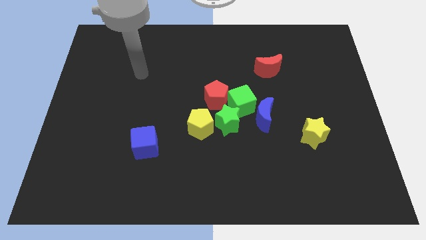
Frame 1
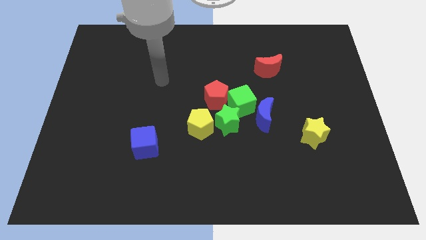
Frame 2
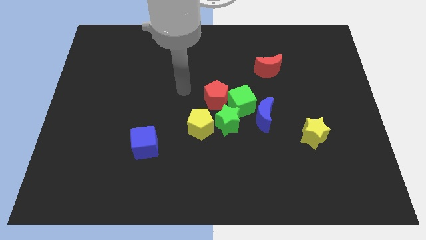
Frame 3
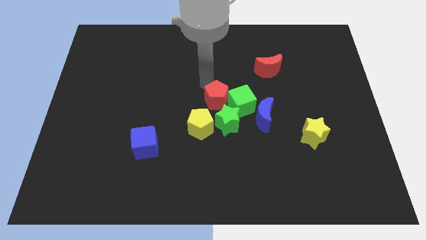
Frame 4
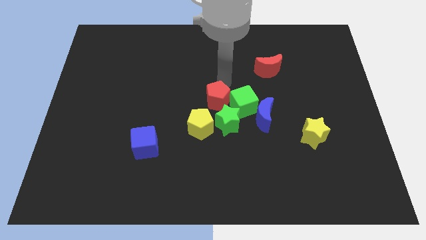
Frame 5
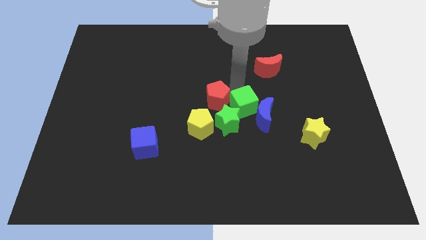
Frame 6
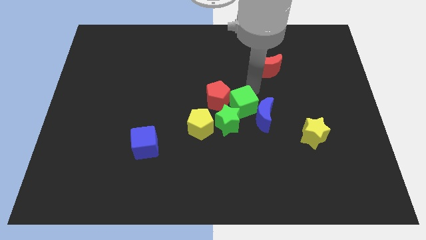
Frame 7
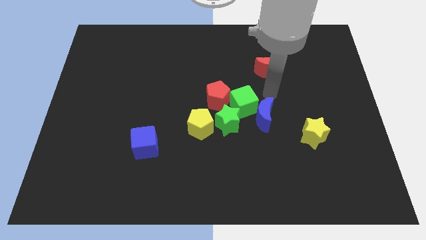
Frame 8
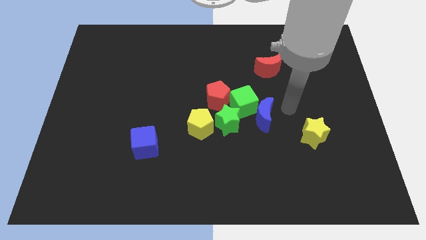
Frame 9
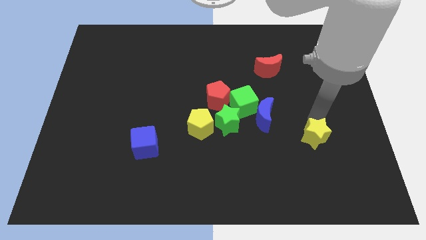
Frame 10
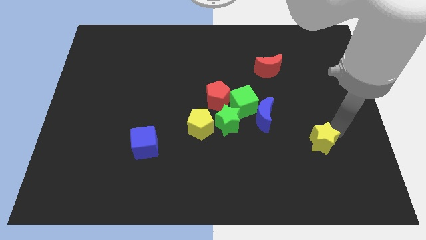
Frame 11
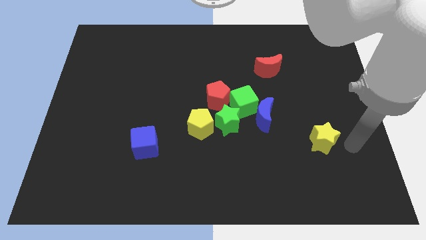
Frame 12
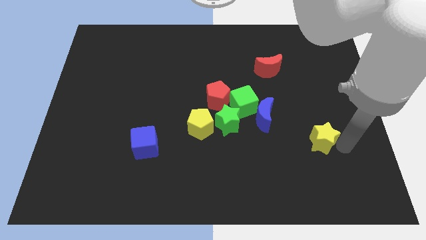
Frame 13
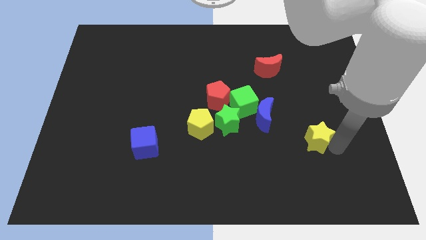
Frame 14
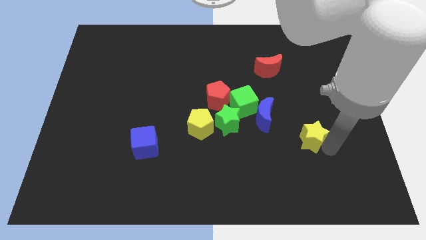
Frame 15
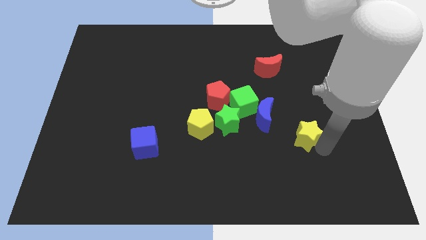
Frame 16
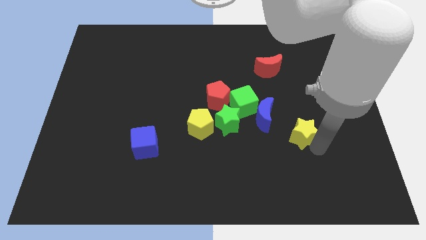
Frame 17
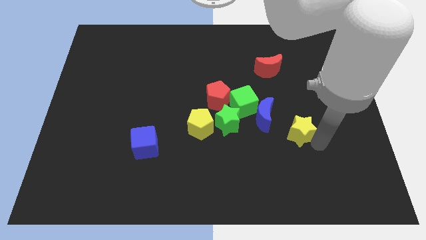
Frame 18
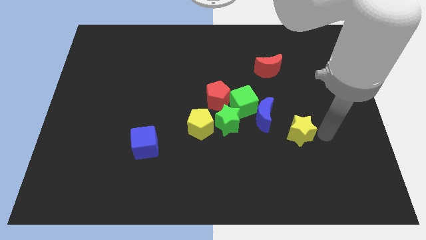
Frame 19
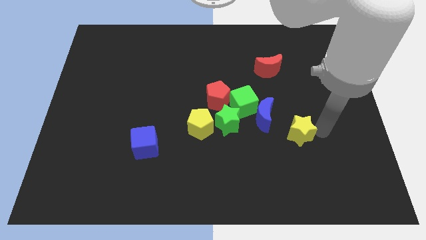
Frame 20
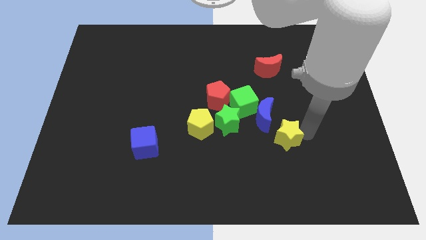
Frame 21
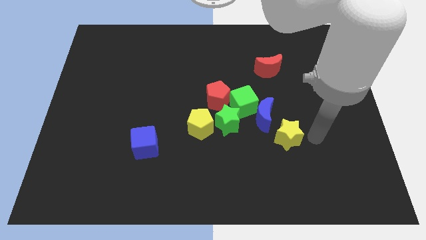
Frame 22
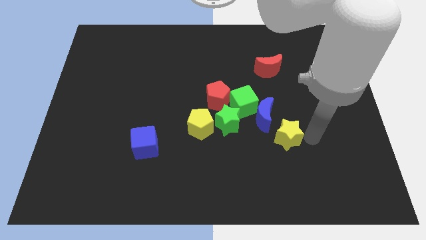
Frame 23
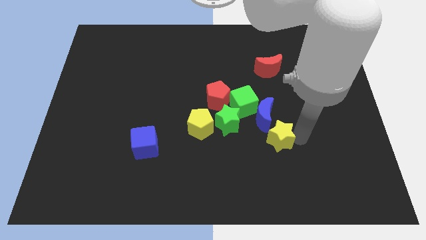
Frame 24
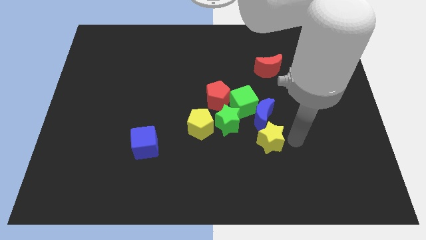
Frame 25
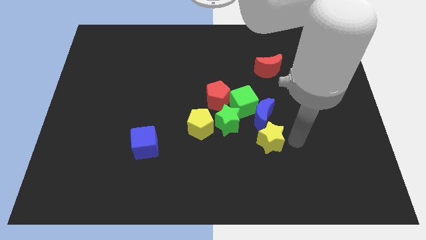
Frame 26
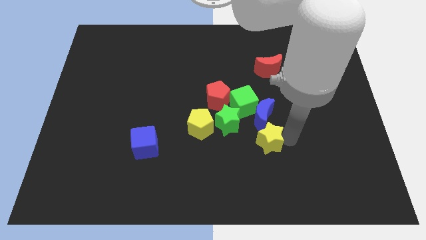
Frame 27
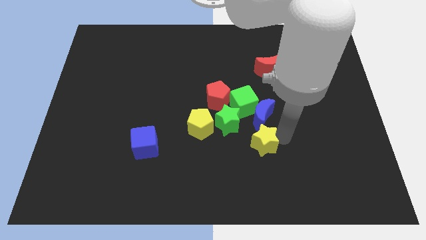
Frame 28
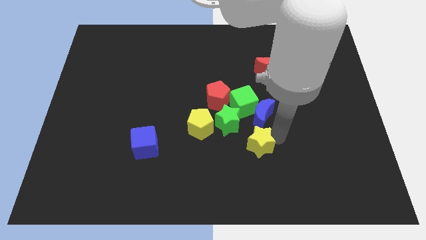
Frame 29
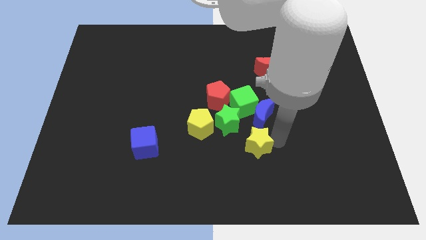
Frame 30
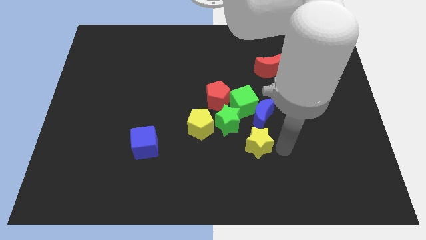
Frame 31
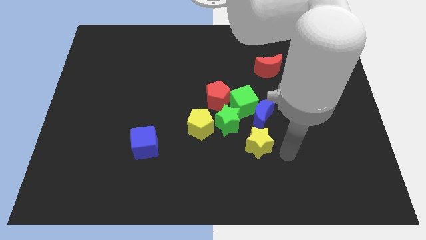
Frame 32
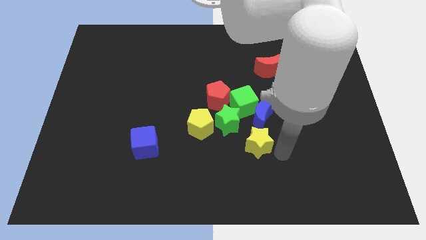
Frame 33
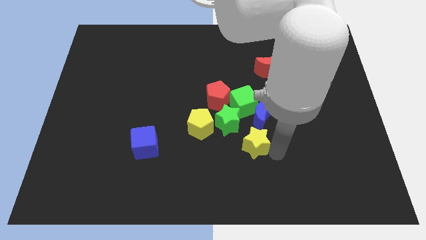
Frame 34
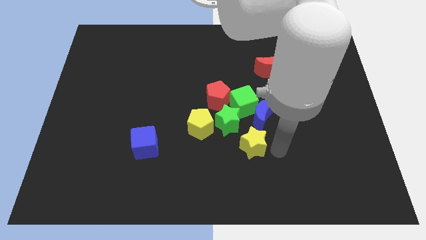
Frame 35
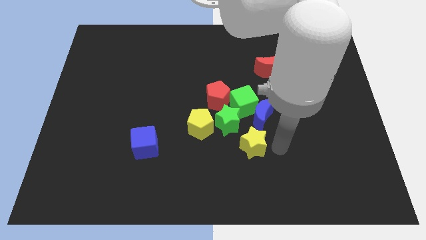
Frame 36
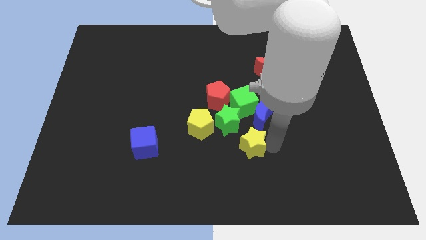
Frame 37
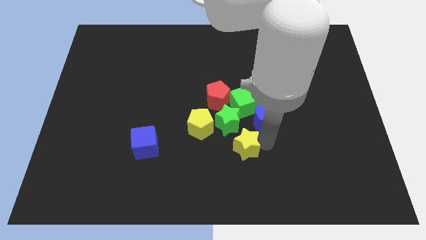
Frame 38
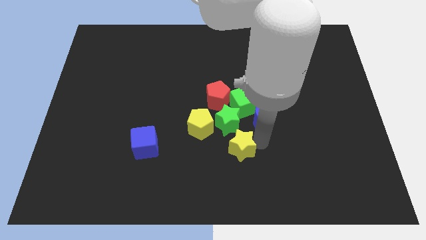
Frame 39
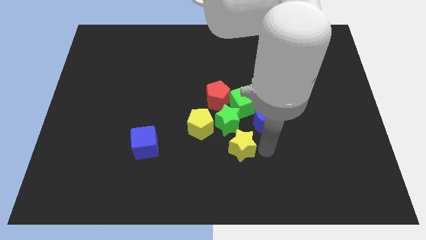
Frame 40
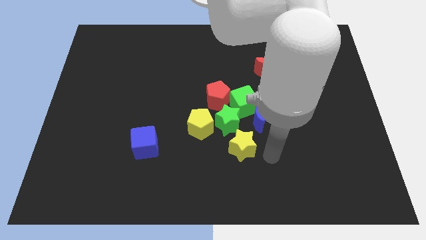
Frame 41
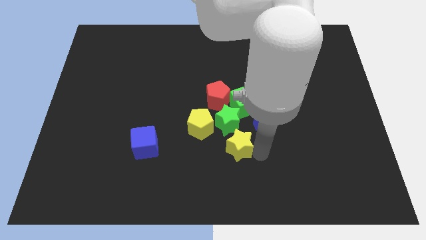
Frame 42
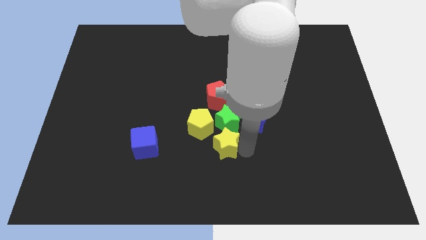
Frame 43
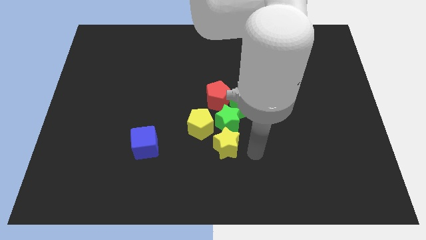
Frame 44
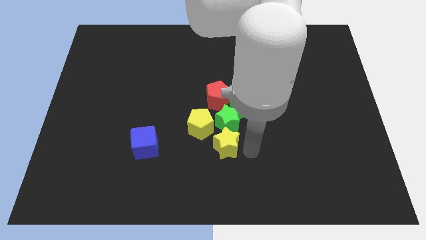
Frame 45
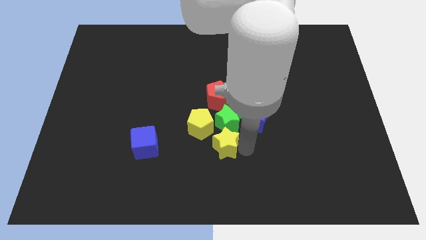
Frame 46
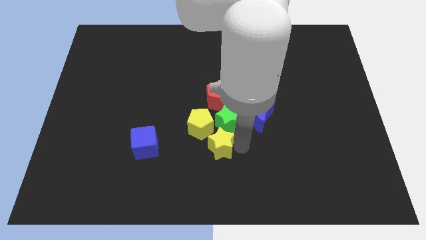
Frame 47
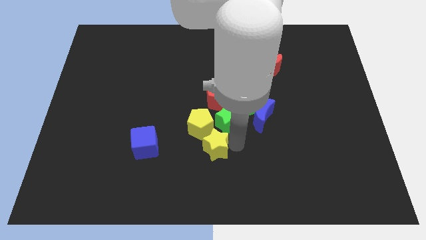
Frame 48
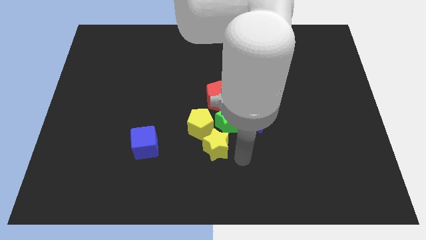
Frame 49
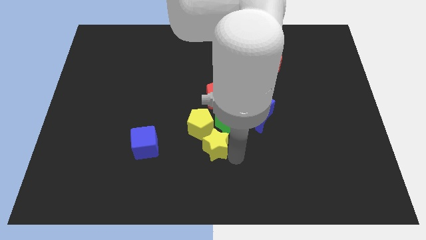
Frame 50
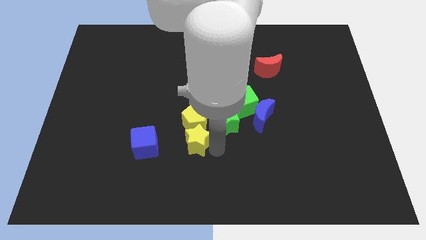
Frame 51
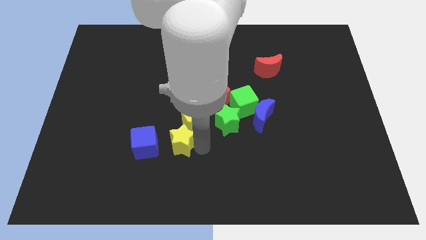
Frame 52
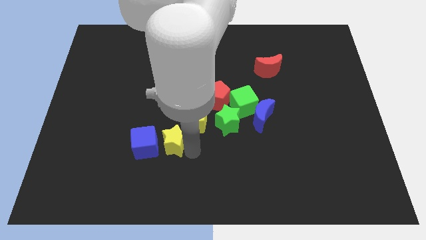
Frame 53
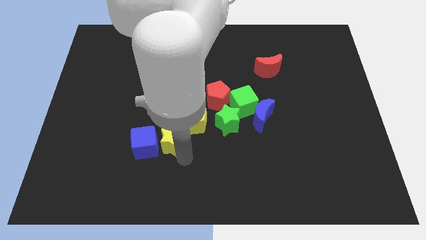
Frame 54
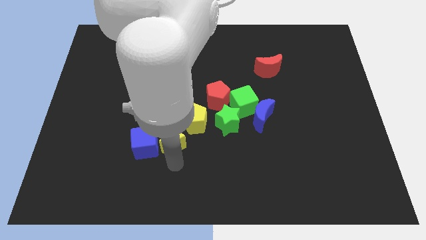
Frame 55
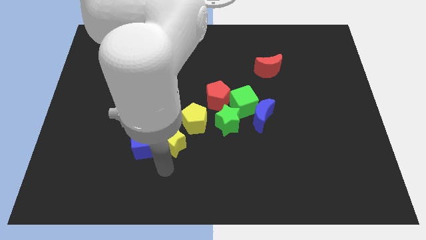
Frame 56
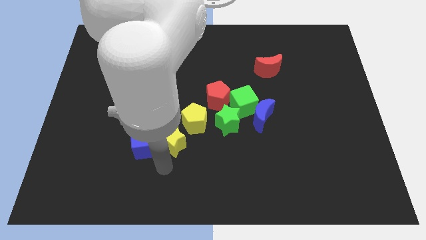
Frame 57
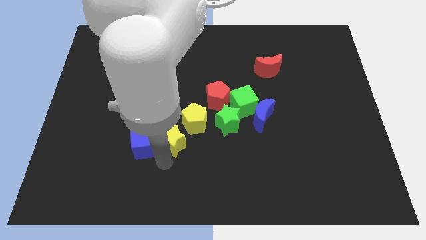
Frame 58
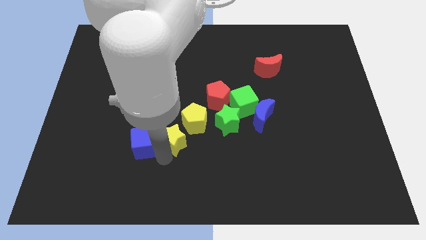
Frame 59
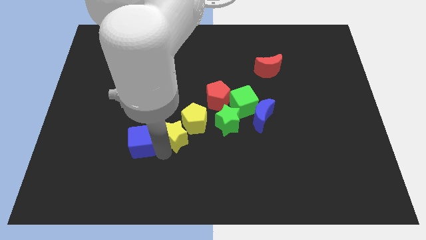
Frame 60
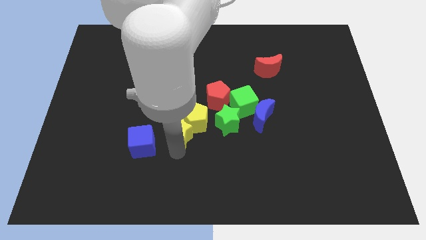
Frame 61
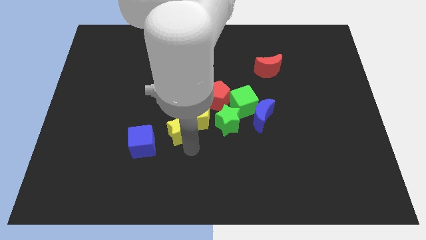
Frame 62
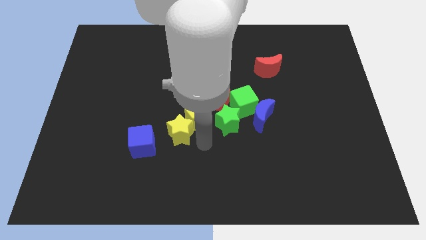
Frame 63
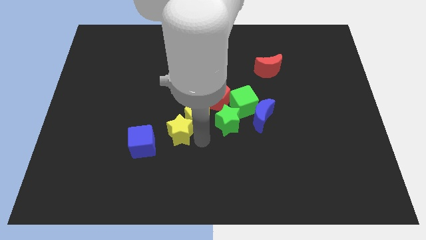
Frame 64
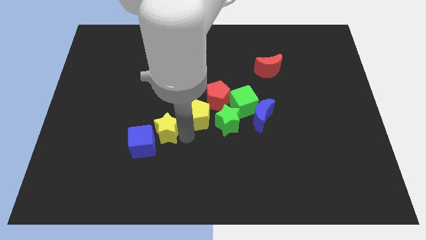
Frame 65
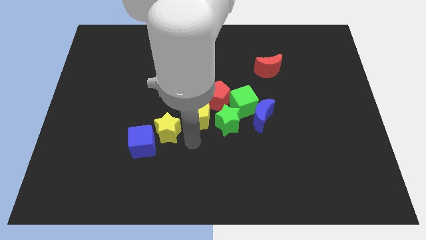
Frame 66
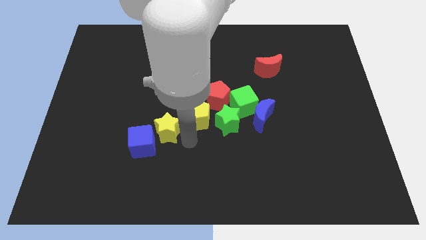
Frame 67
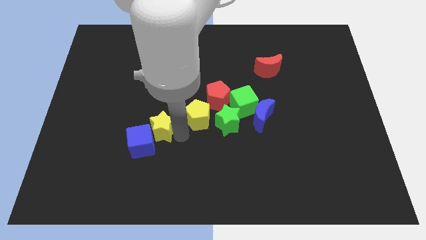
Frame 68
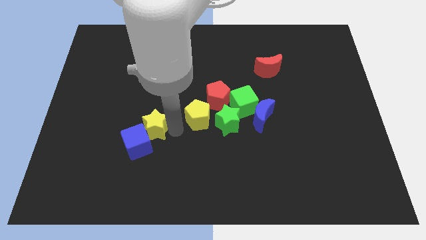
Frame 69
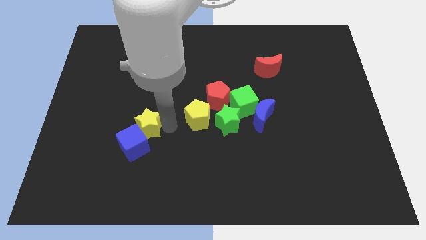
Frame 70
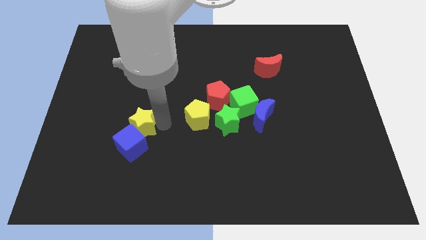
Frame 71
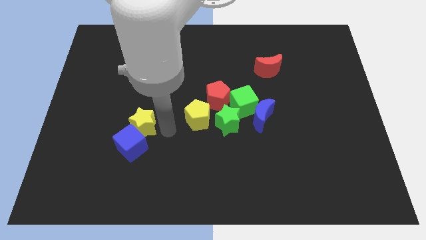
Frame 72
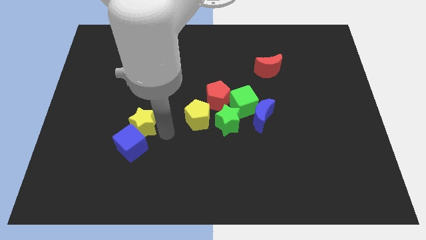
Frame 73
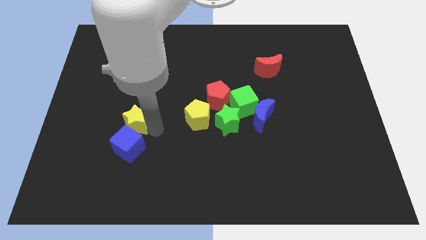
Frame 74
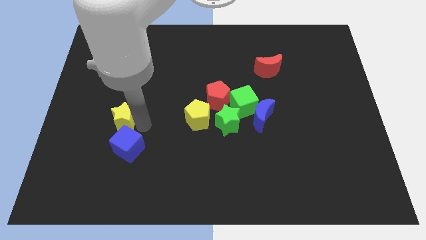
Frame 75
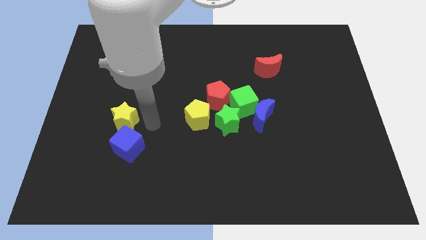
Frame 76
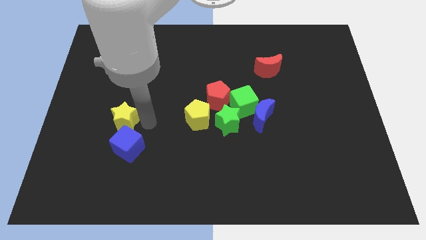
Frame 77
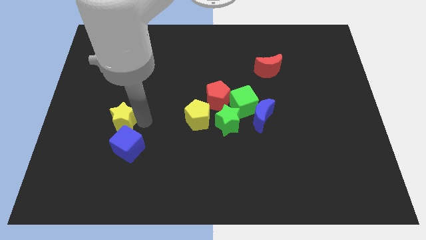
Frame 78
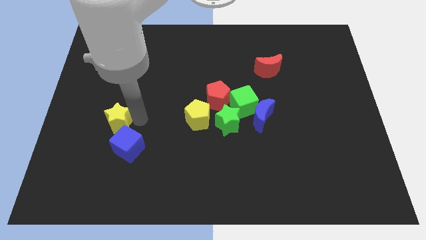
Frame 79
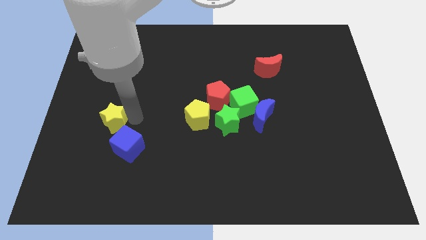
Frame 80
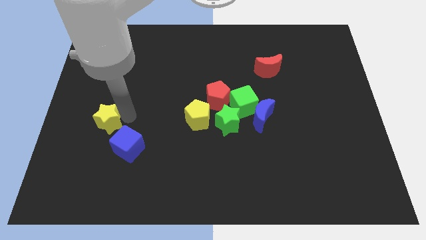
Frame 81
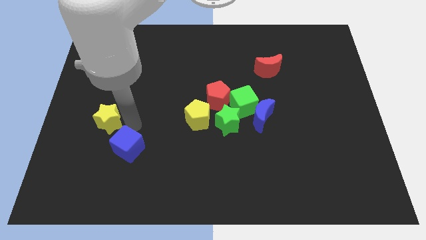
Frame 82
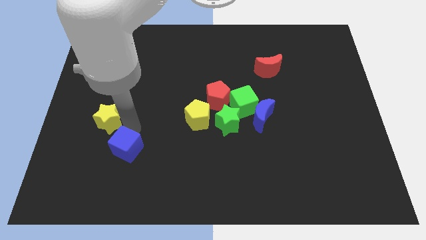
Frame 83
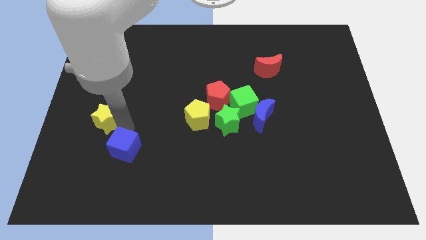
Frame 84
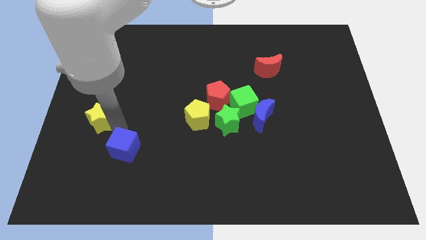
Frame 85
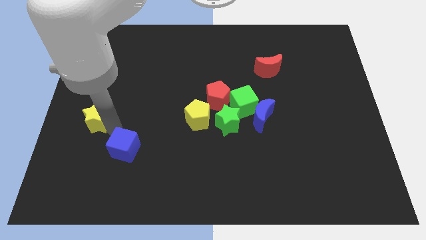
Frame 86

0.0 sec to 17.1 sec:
put the yellow star to the left side
